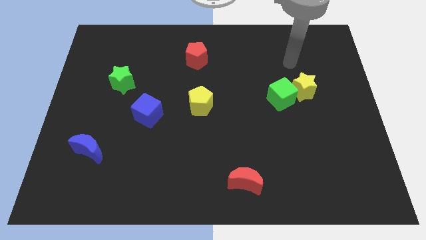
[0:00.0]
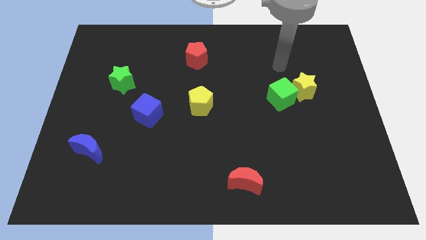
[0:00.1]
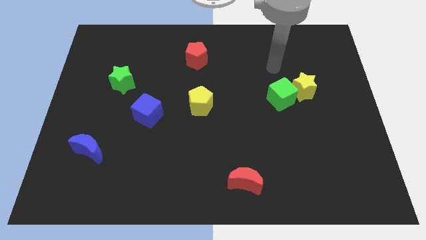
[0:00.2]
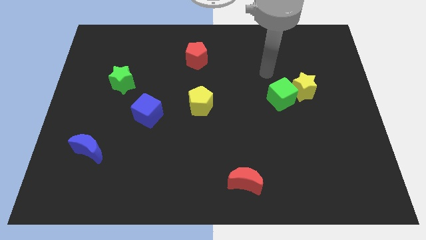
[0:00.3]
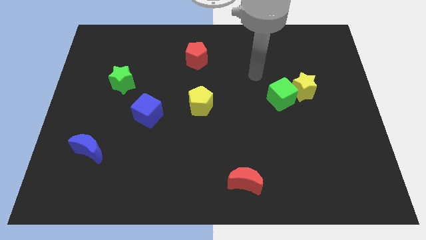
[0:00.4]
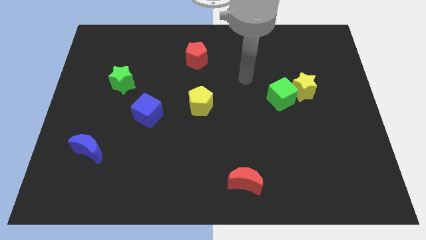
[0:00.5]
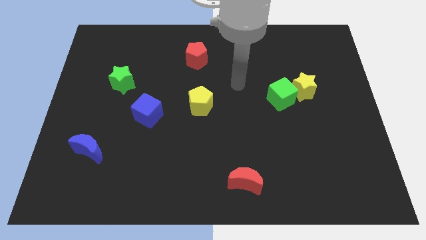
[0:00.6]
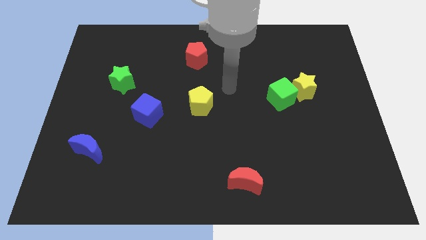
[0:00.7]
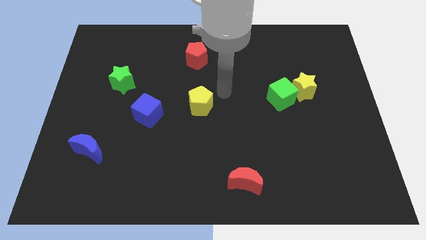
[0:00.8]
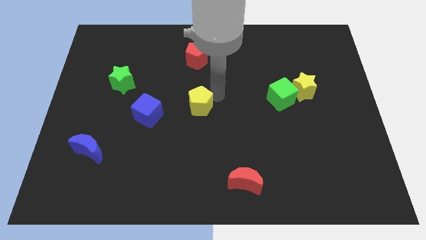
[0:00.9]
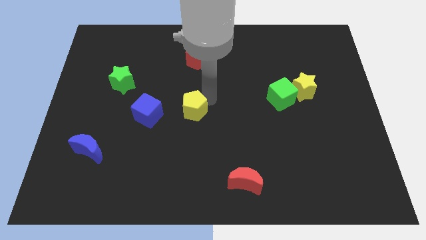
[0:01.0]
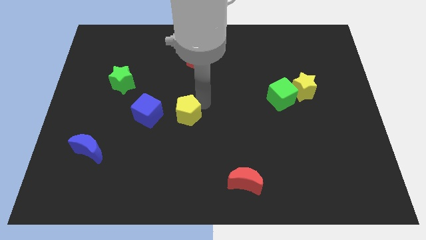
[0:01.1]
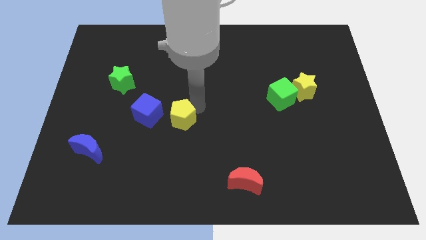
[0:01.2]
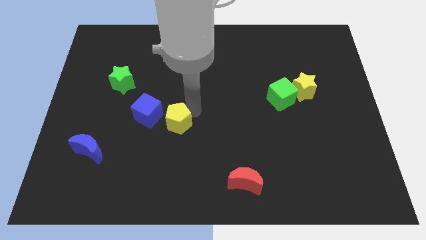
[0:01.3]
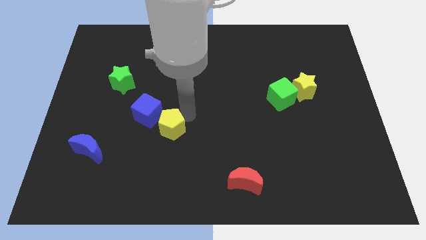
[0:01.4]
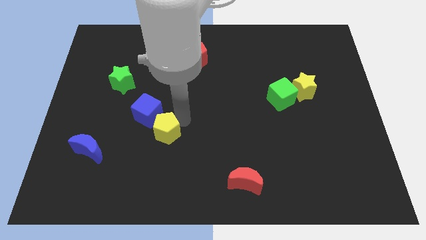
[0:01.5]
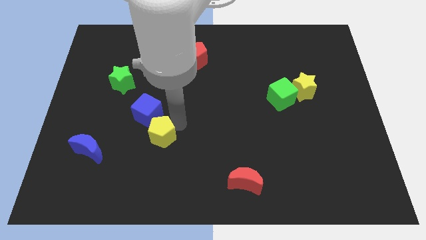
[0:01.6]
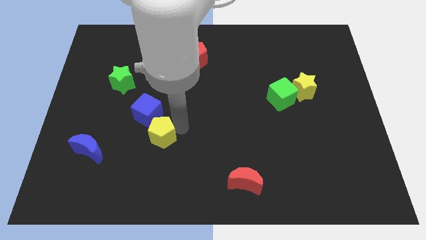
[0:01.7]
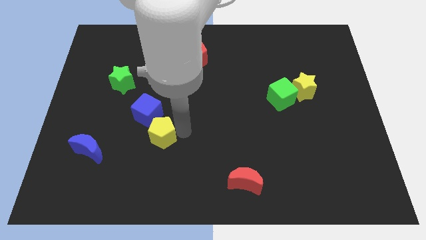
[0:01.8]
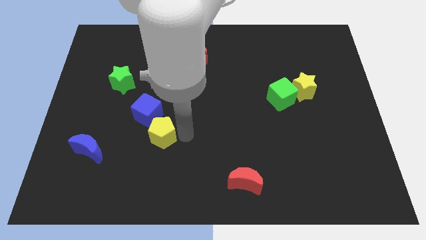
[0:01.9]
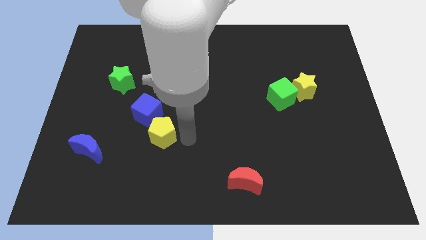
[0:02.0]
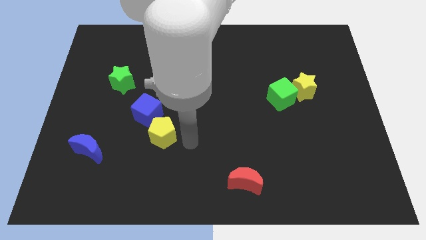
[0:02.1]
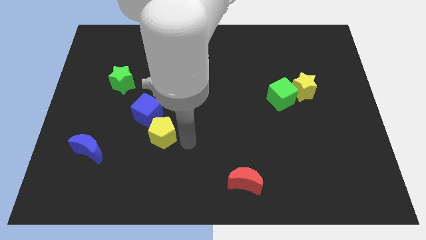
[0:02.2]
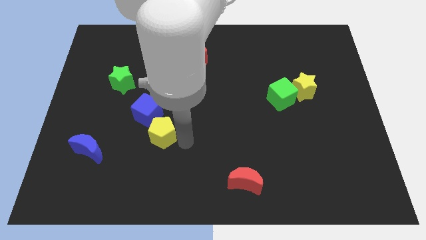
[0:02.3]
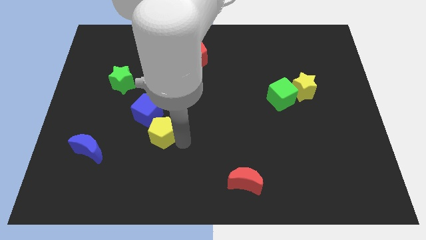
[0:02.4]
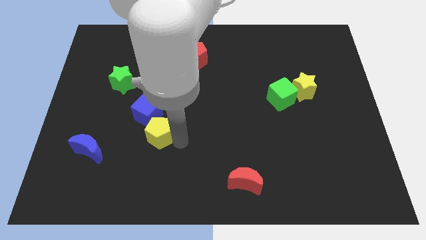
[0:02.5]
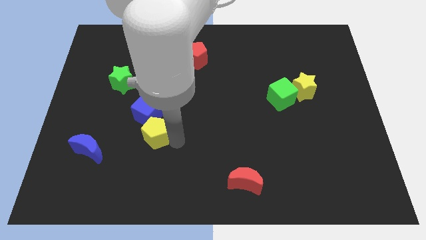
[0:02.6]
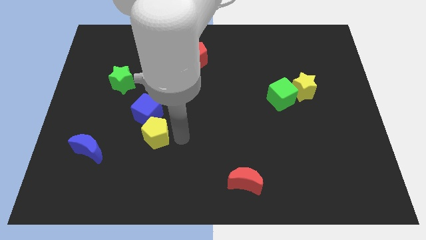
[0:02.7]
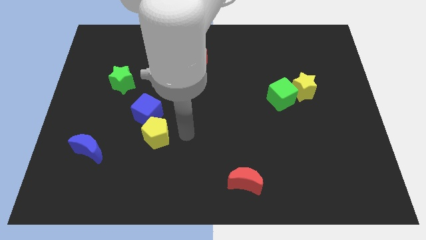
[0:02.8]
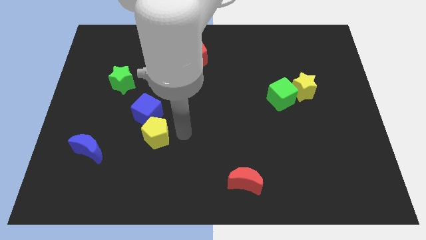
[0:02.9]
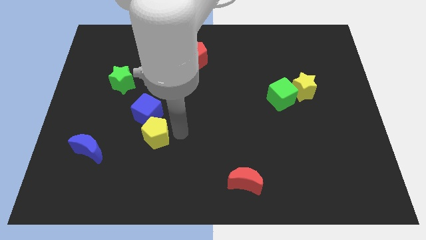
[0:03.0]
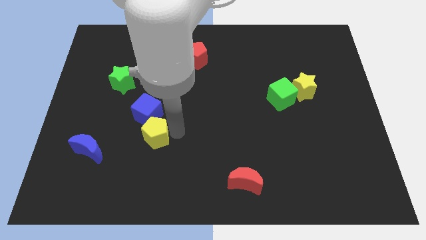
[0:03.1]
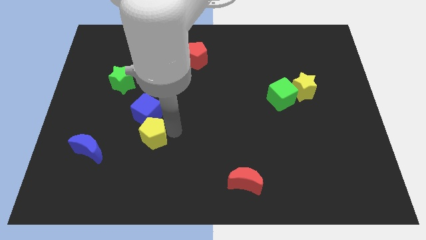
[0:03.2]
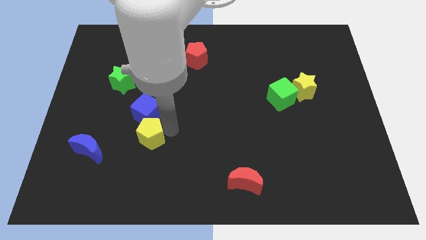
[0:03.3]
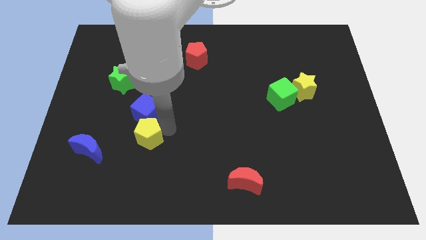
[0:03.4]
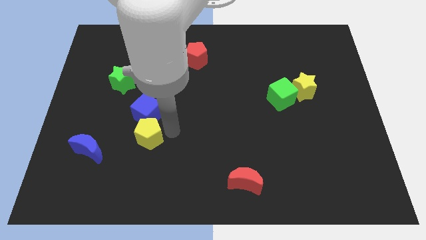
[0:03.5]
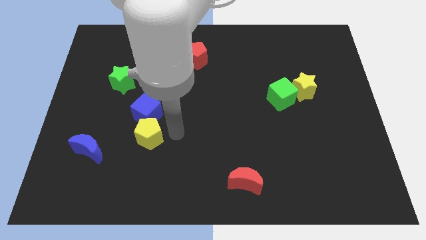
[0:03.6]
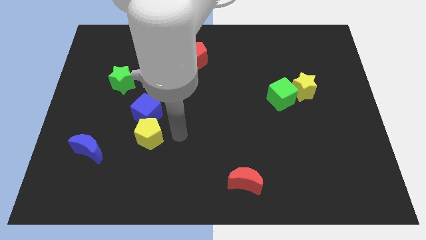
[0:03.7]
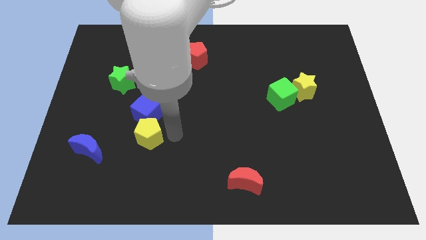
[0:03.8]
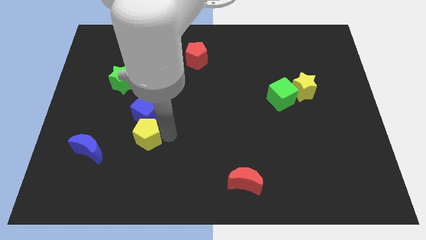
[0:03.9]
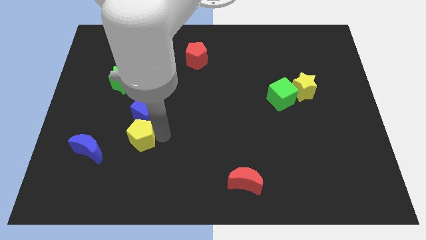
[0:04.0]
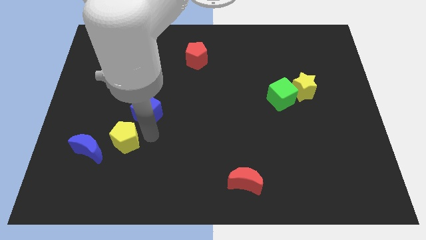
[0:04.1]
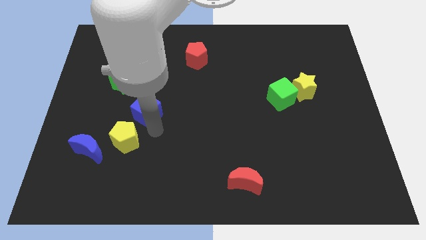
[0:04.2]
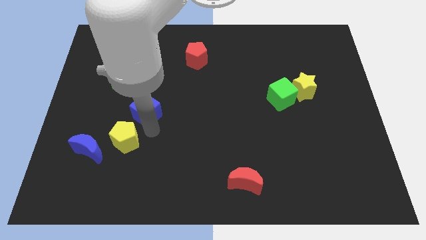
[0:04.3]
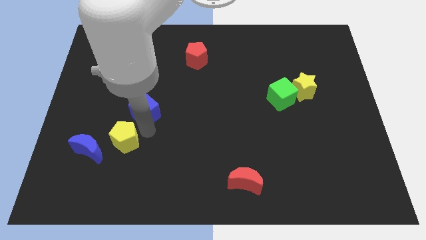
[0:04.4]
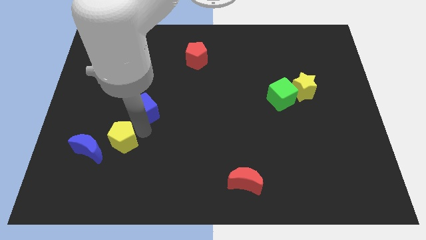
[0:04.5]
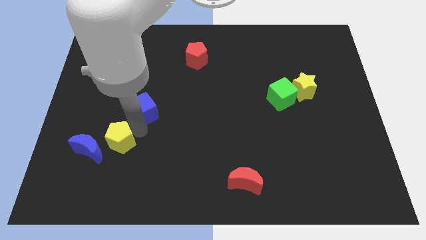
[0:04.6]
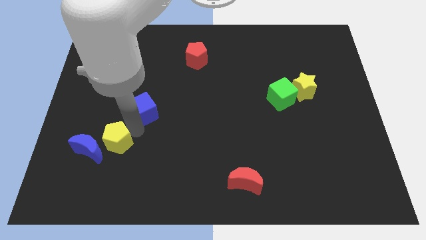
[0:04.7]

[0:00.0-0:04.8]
slide the yellow pentagon close to the blue moon

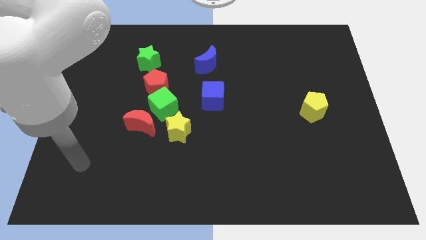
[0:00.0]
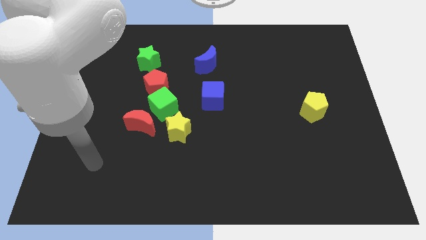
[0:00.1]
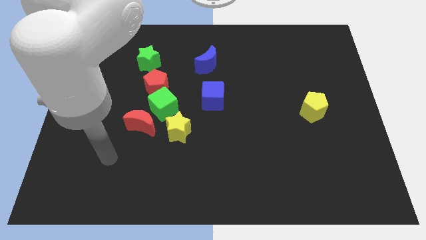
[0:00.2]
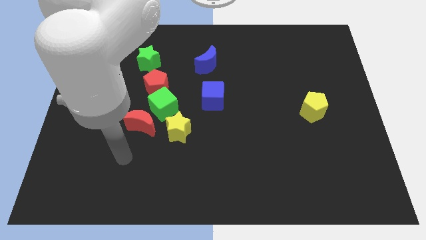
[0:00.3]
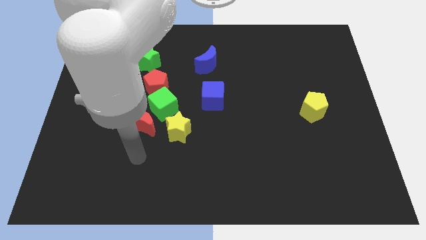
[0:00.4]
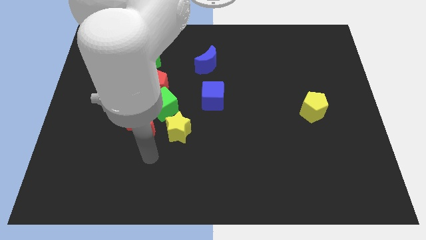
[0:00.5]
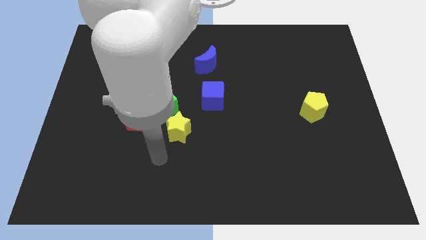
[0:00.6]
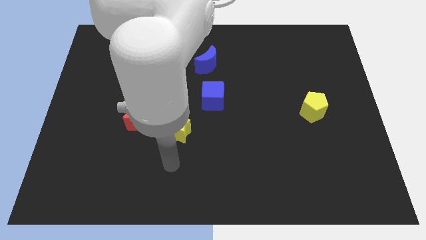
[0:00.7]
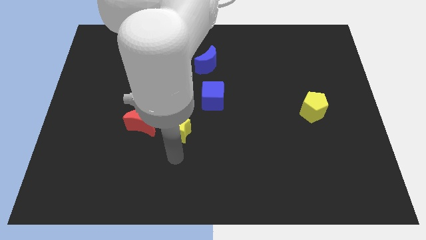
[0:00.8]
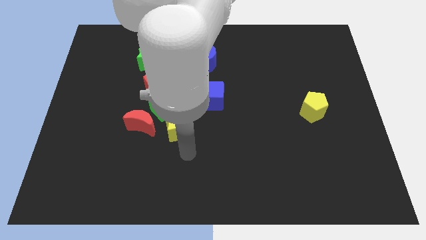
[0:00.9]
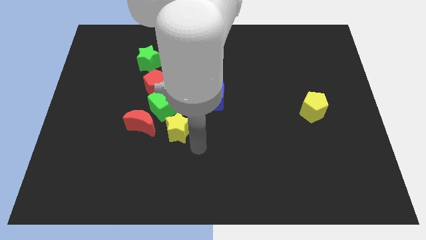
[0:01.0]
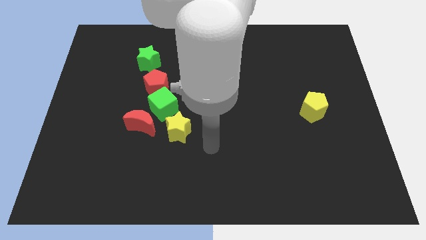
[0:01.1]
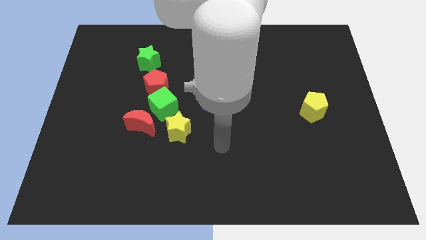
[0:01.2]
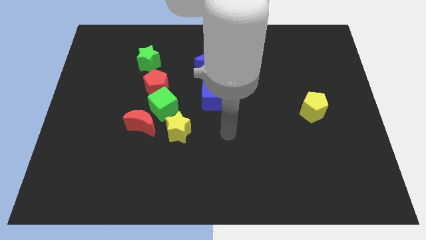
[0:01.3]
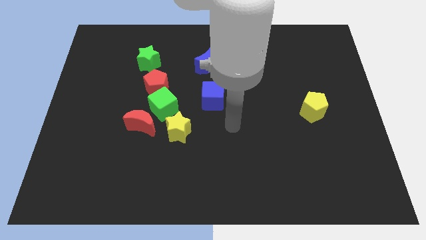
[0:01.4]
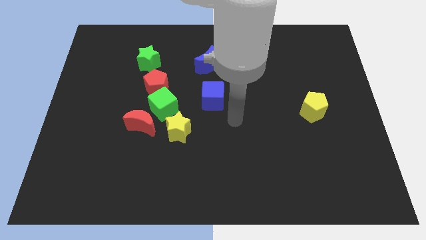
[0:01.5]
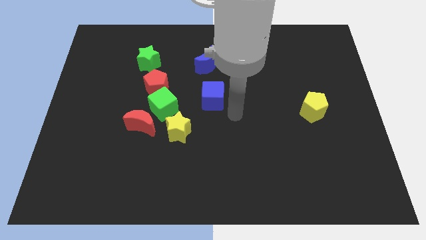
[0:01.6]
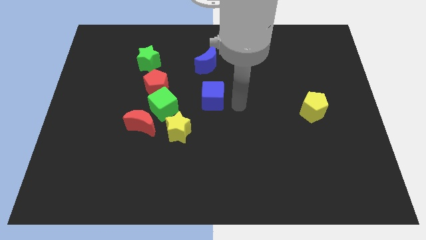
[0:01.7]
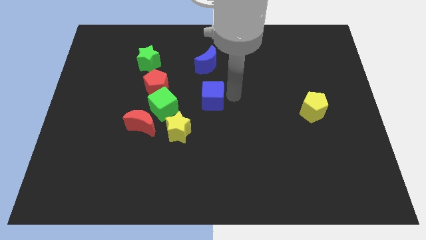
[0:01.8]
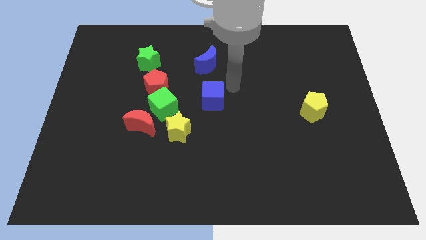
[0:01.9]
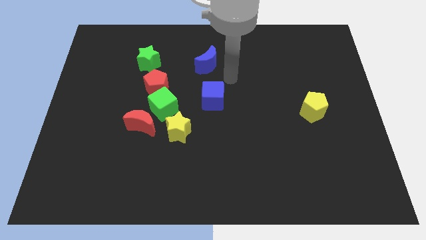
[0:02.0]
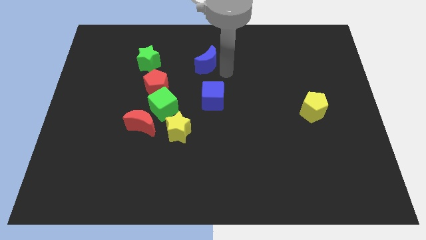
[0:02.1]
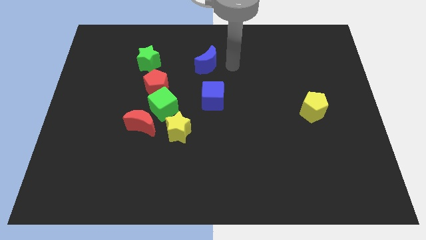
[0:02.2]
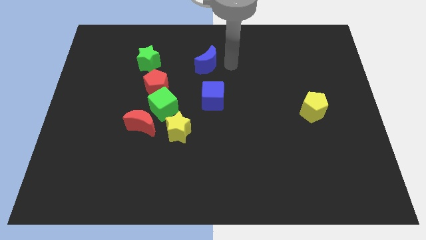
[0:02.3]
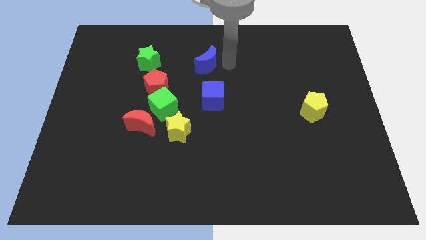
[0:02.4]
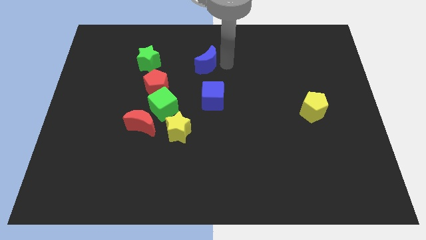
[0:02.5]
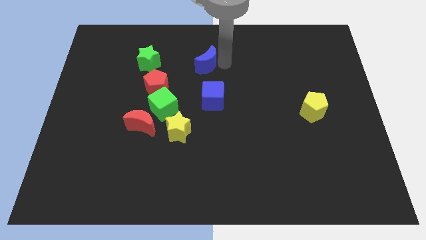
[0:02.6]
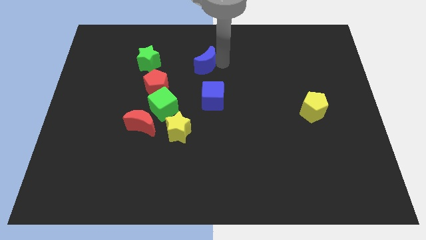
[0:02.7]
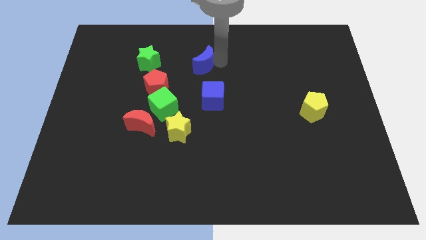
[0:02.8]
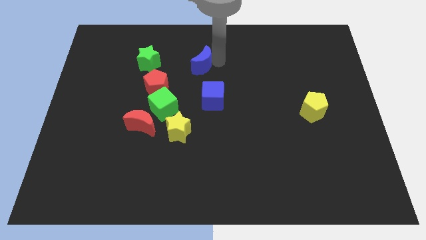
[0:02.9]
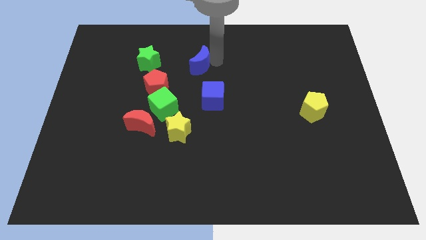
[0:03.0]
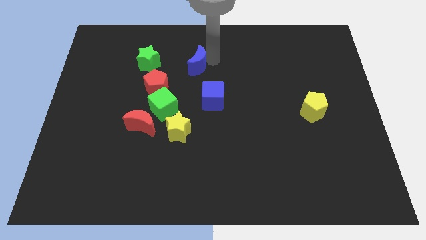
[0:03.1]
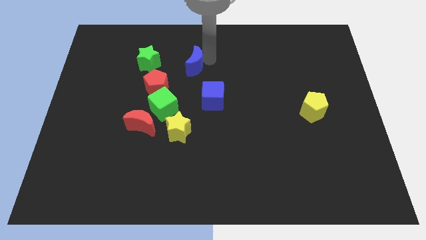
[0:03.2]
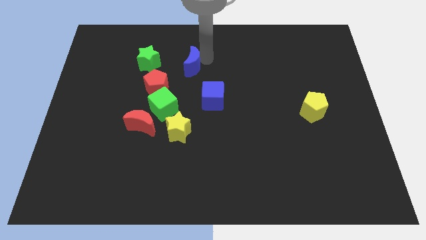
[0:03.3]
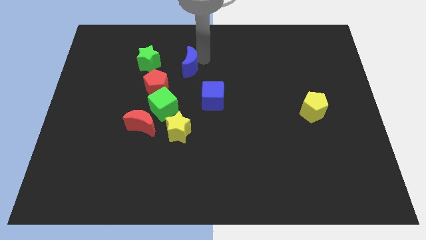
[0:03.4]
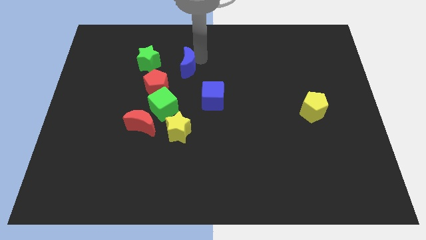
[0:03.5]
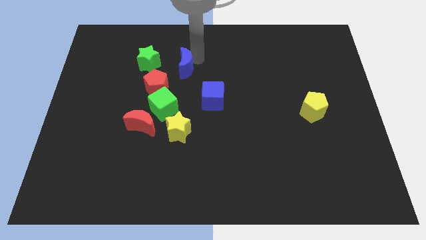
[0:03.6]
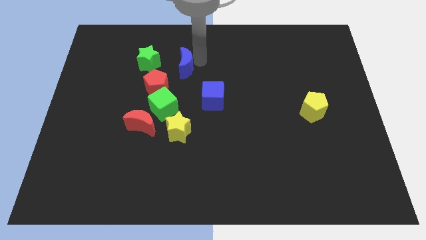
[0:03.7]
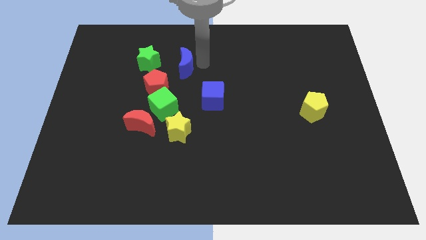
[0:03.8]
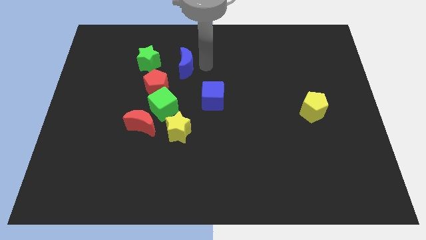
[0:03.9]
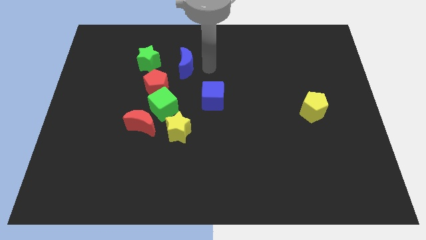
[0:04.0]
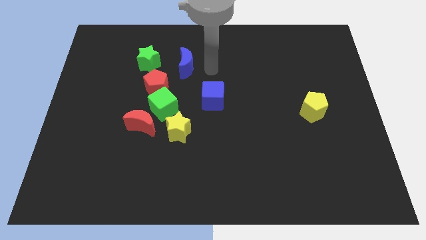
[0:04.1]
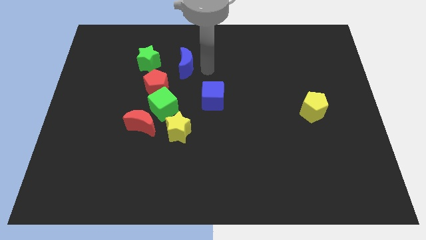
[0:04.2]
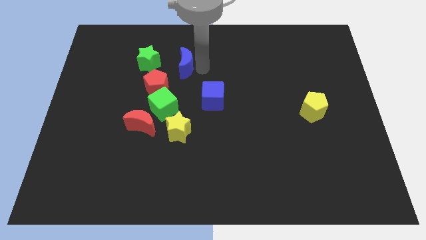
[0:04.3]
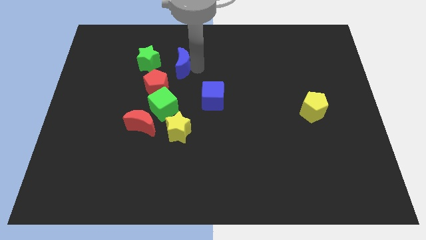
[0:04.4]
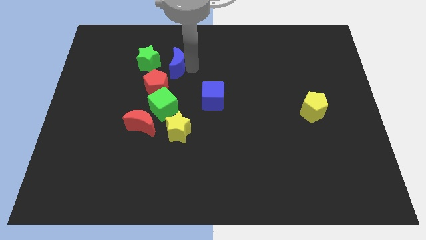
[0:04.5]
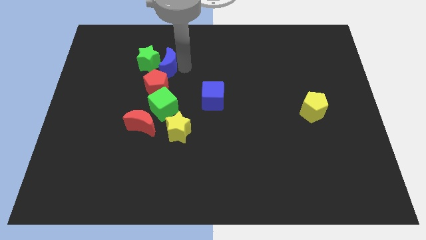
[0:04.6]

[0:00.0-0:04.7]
push the blue moon to the green star
